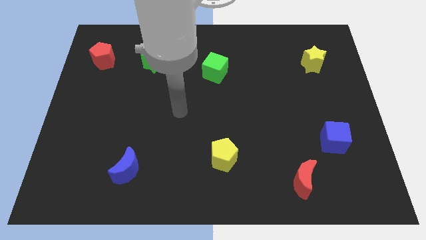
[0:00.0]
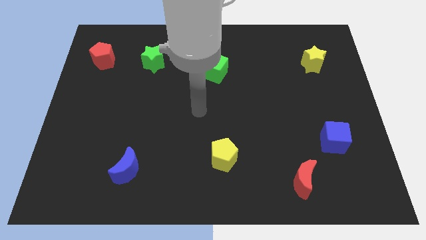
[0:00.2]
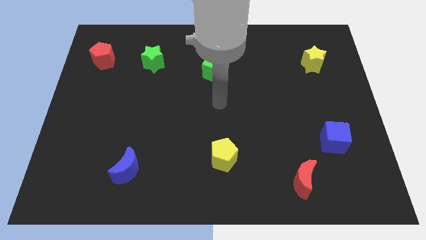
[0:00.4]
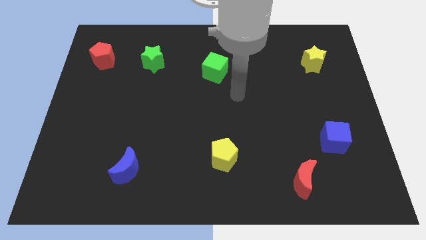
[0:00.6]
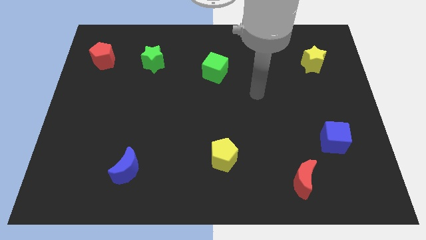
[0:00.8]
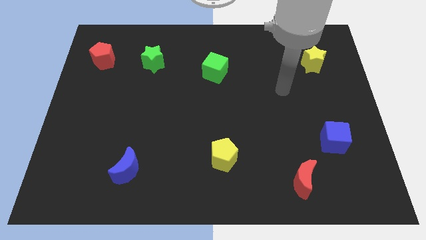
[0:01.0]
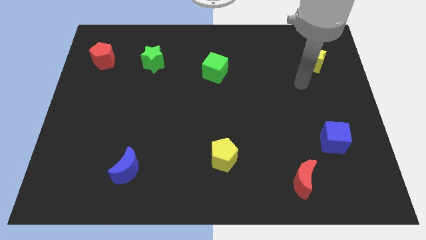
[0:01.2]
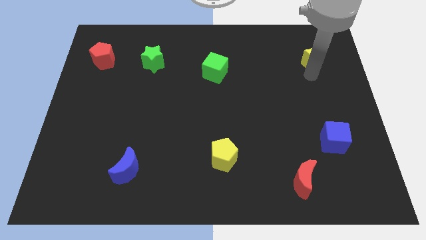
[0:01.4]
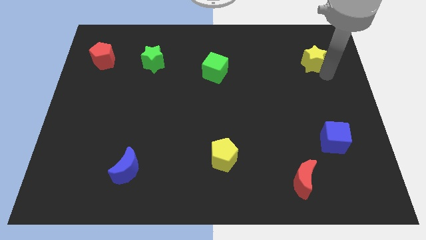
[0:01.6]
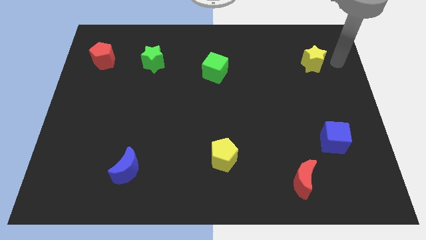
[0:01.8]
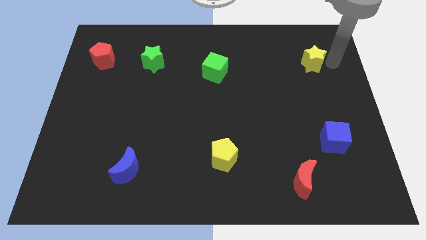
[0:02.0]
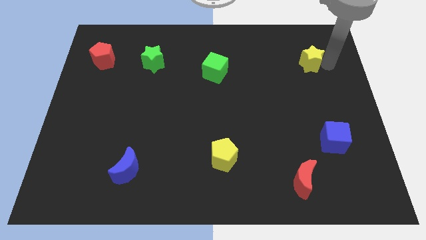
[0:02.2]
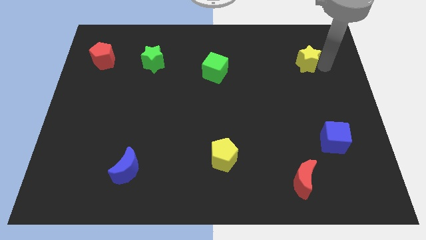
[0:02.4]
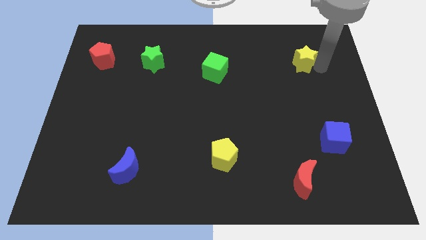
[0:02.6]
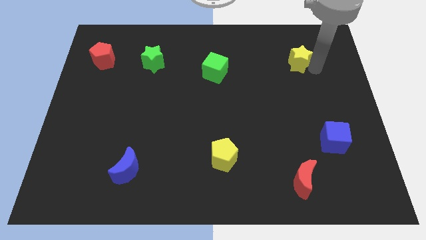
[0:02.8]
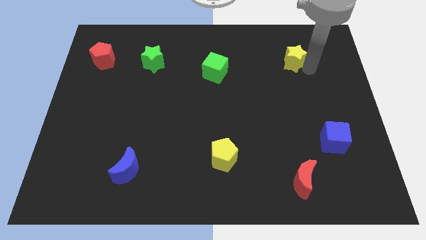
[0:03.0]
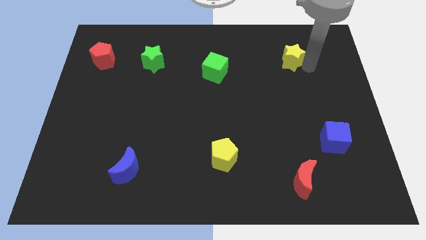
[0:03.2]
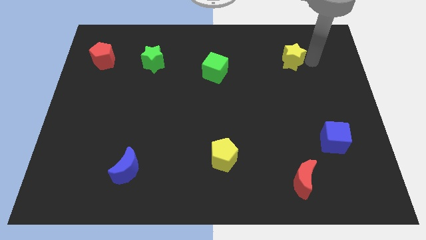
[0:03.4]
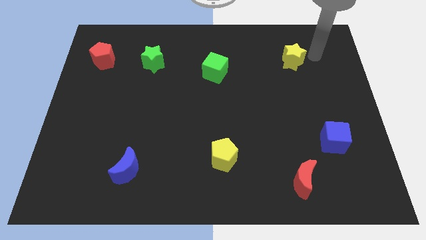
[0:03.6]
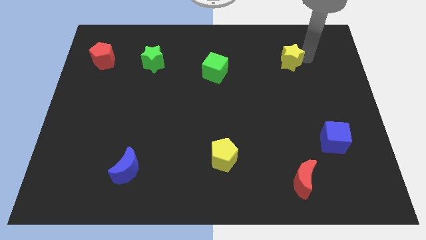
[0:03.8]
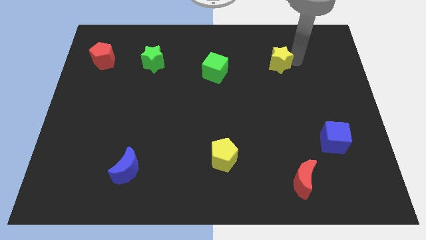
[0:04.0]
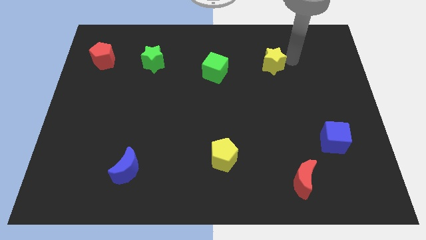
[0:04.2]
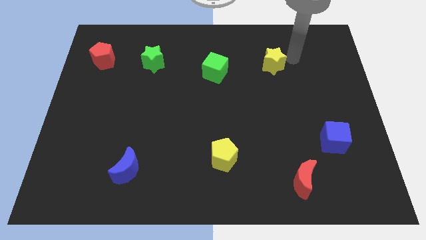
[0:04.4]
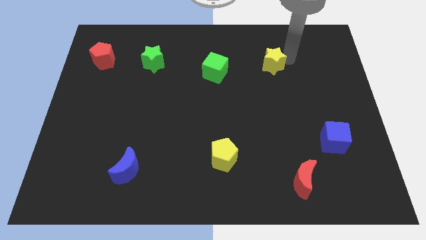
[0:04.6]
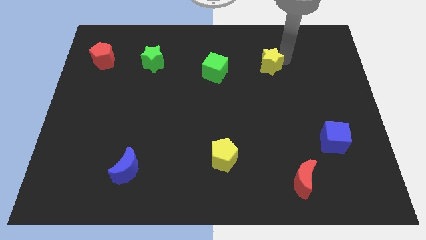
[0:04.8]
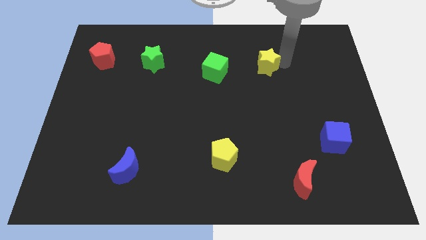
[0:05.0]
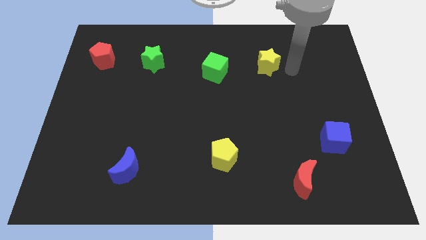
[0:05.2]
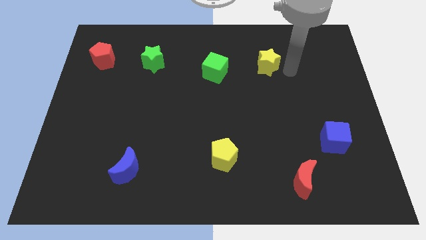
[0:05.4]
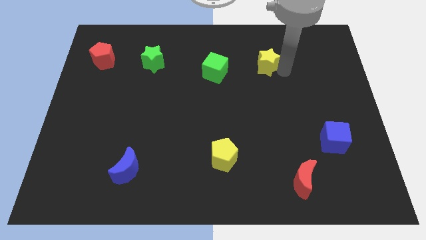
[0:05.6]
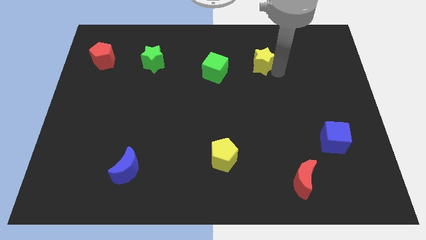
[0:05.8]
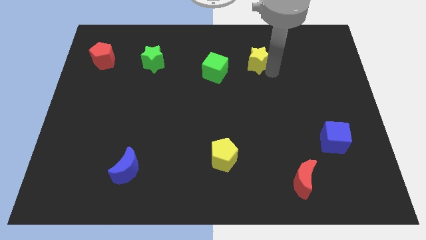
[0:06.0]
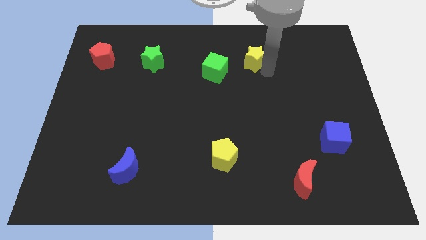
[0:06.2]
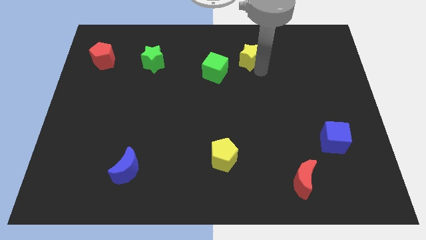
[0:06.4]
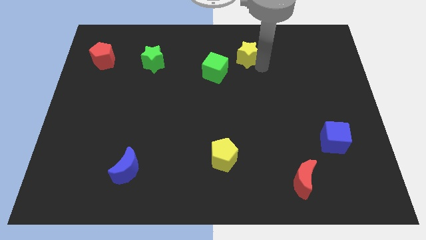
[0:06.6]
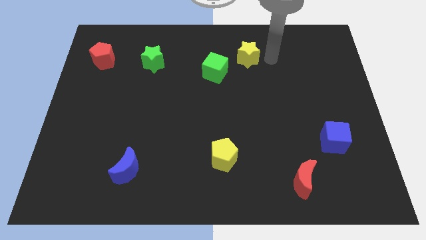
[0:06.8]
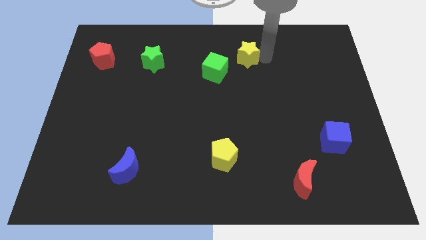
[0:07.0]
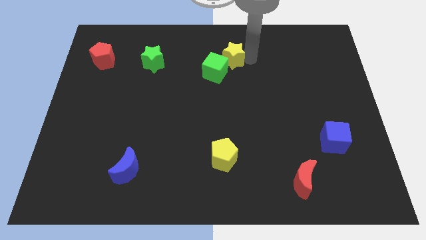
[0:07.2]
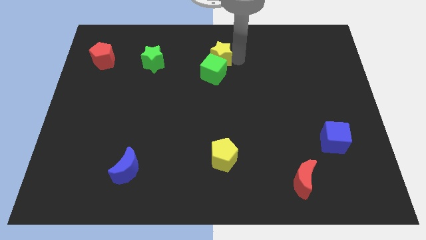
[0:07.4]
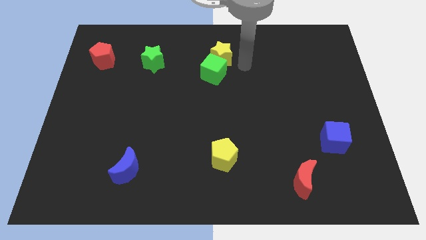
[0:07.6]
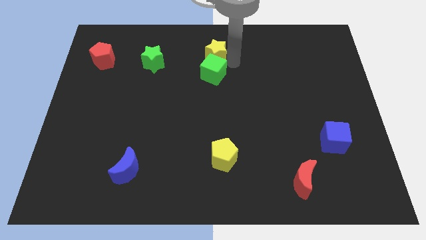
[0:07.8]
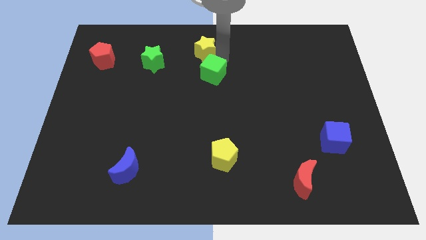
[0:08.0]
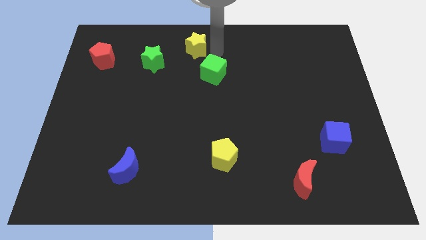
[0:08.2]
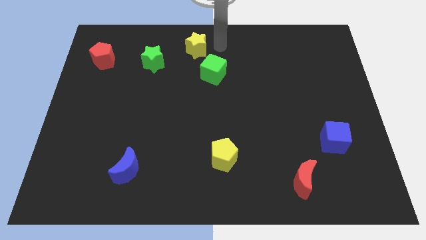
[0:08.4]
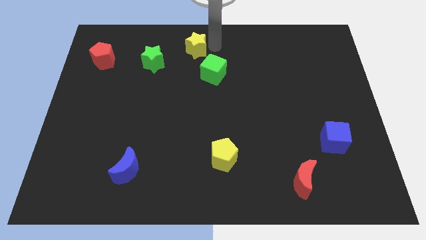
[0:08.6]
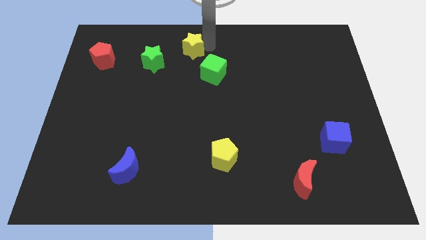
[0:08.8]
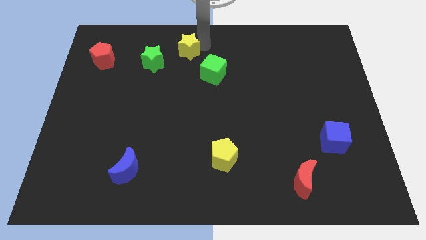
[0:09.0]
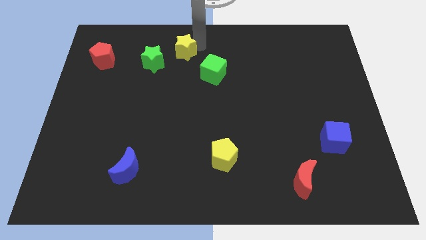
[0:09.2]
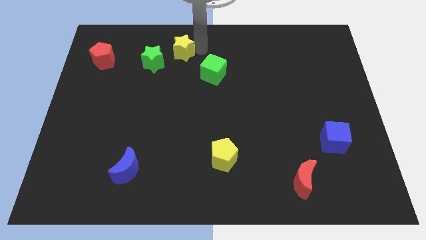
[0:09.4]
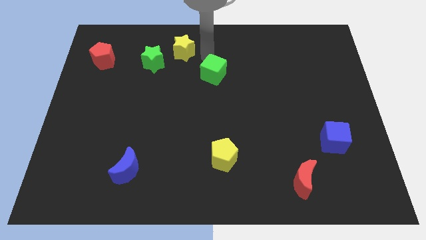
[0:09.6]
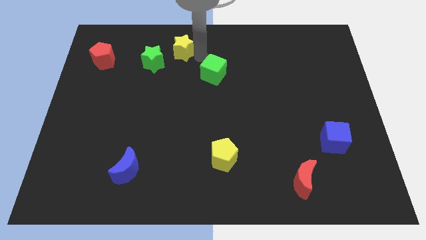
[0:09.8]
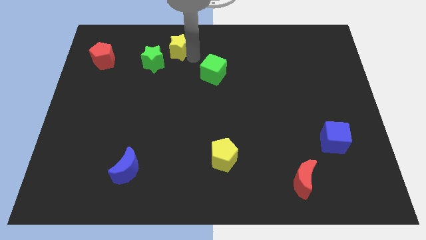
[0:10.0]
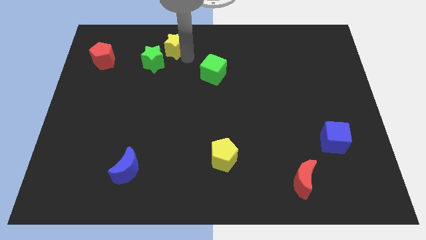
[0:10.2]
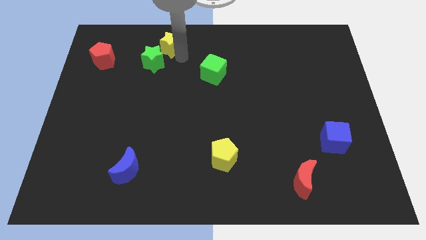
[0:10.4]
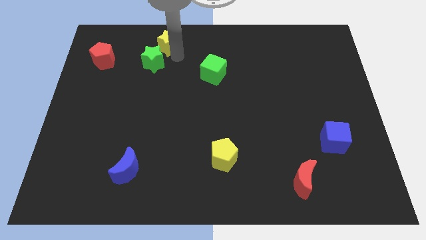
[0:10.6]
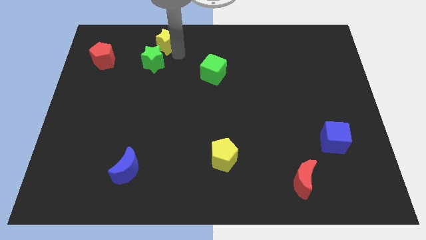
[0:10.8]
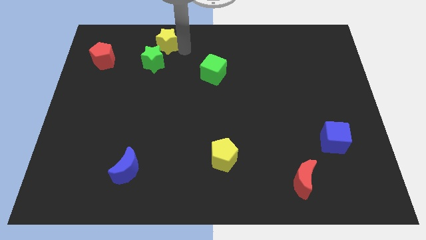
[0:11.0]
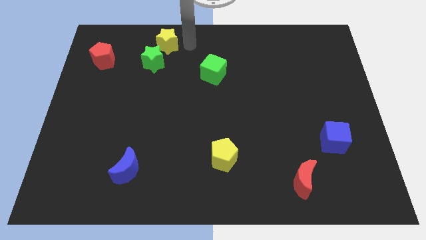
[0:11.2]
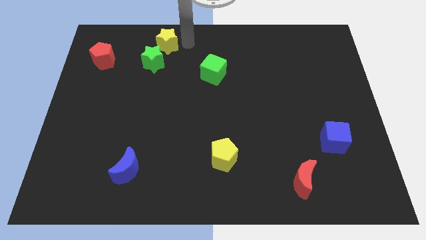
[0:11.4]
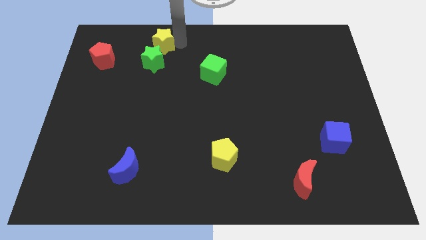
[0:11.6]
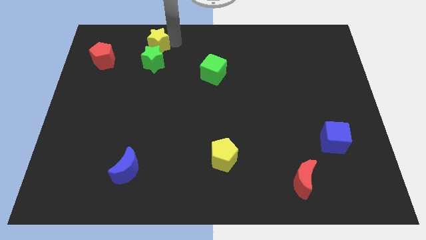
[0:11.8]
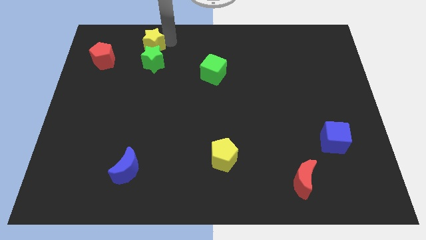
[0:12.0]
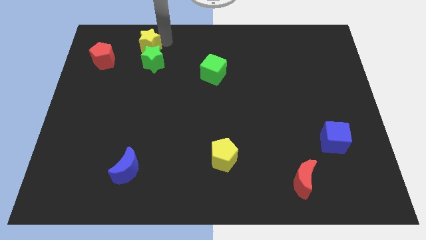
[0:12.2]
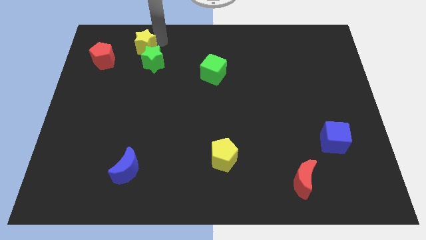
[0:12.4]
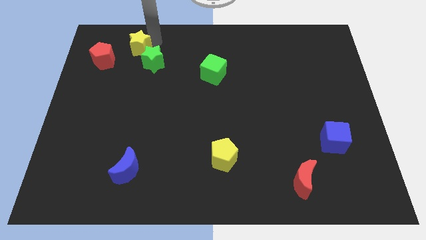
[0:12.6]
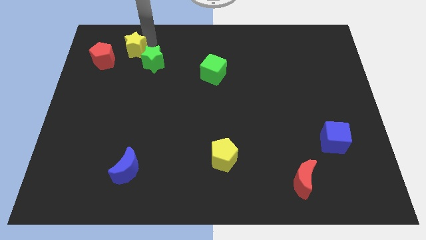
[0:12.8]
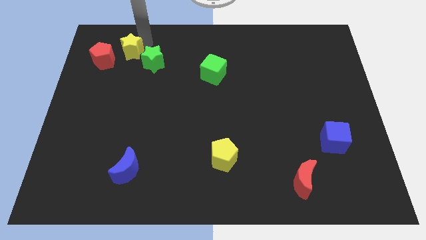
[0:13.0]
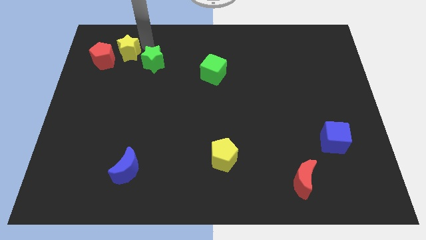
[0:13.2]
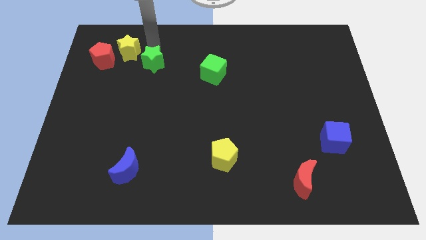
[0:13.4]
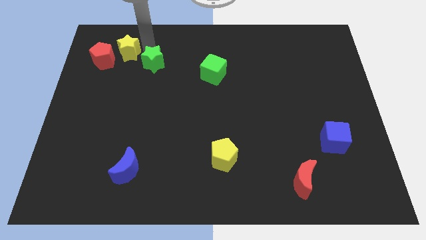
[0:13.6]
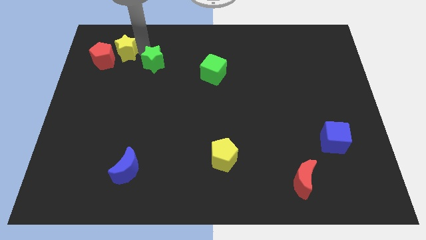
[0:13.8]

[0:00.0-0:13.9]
put the yellow star close to the red pentagon

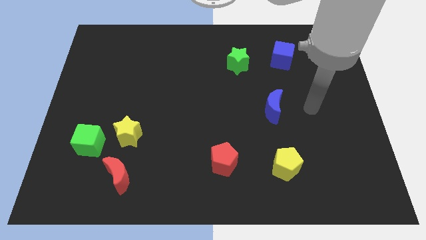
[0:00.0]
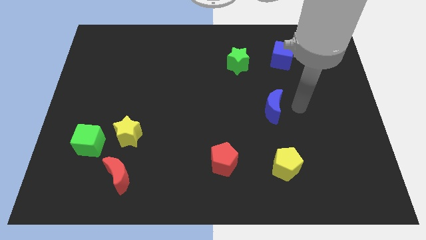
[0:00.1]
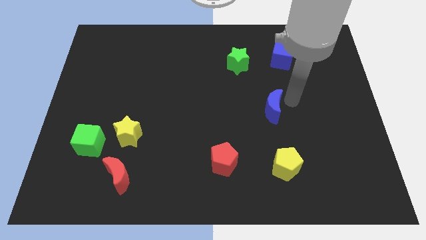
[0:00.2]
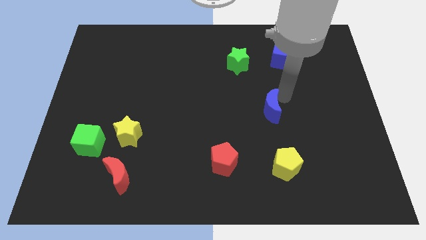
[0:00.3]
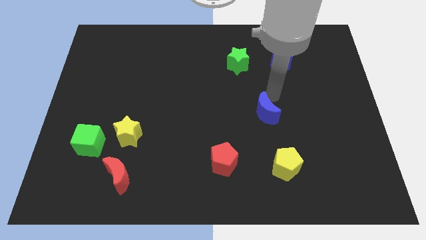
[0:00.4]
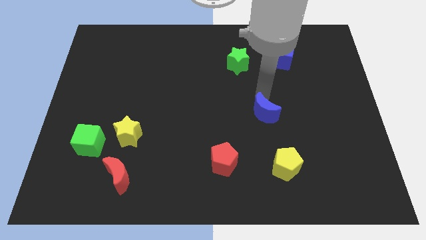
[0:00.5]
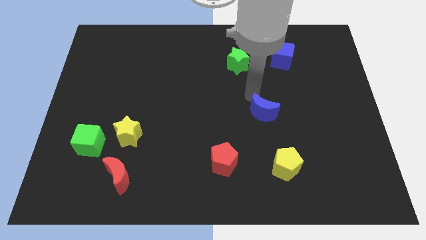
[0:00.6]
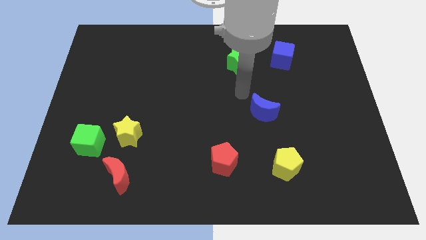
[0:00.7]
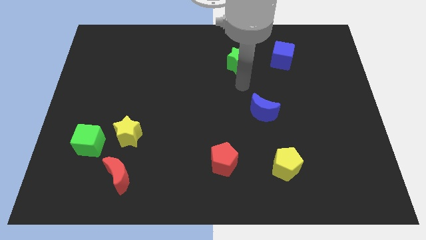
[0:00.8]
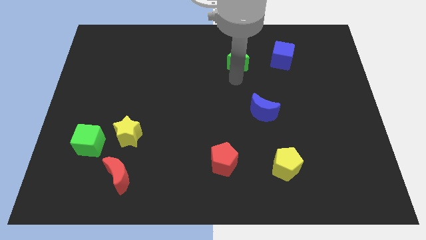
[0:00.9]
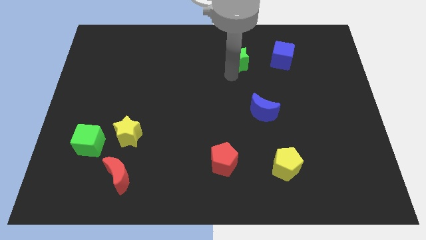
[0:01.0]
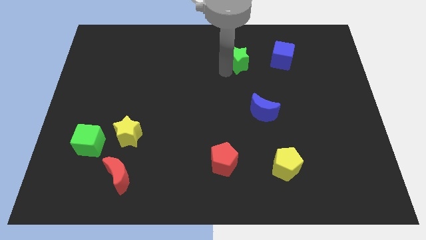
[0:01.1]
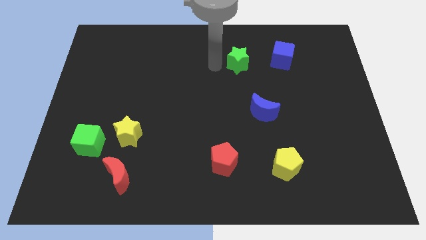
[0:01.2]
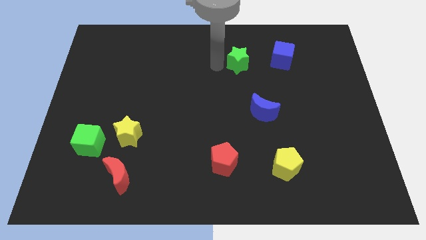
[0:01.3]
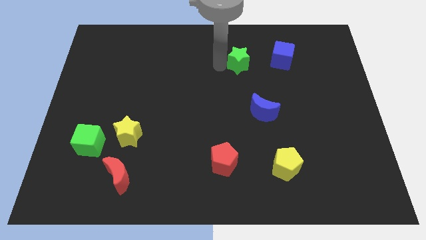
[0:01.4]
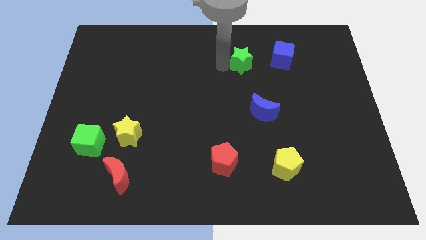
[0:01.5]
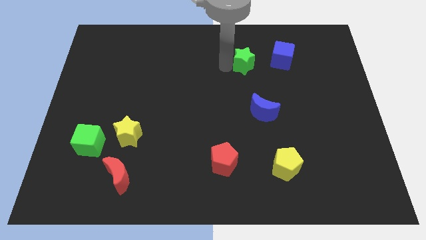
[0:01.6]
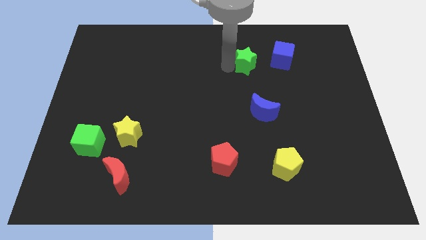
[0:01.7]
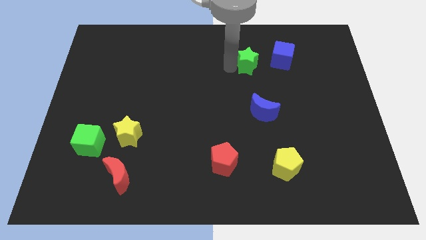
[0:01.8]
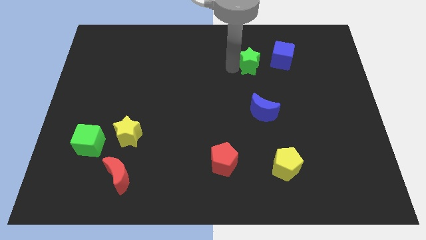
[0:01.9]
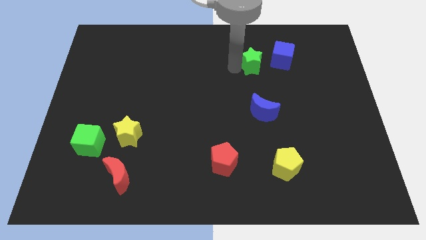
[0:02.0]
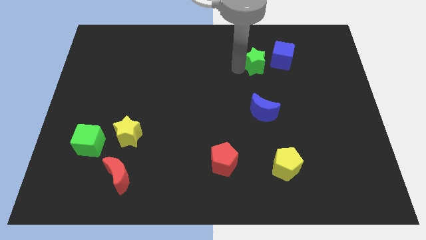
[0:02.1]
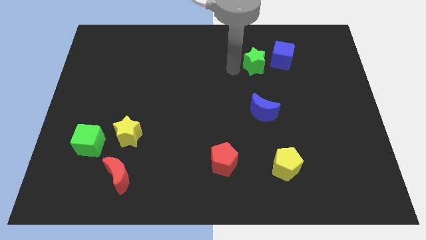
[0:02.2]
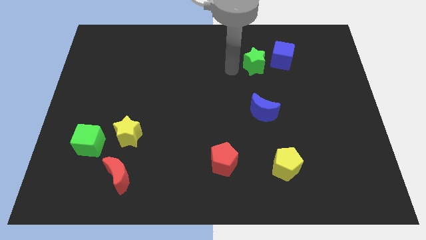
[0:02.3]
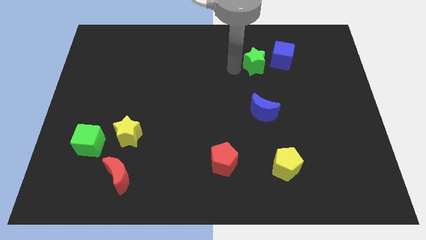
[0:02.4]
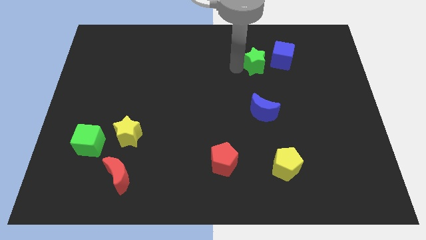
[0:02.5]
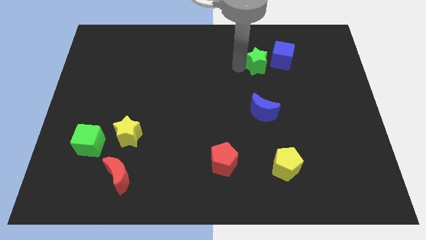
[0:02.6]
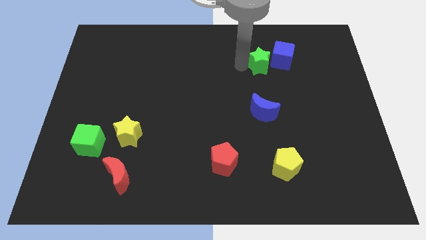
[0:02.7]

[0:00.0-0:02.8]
move the green star close to the blue cube
